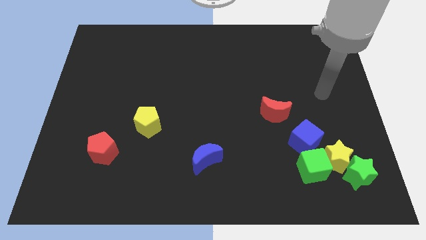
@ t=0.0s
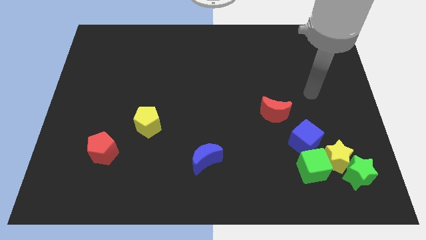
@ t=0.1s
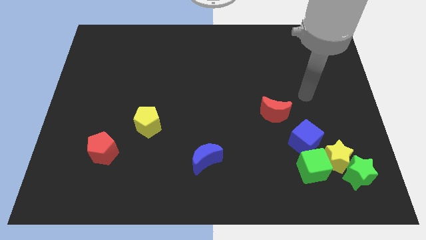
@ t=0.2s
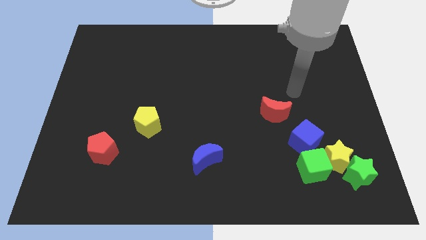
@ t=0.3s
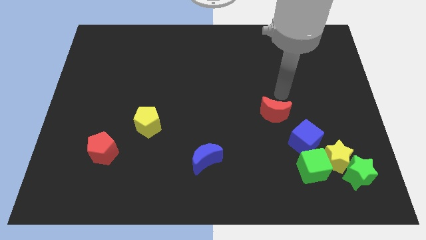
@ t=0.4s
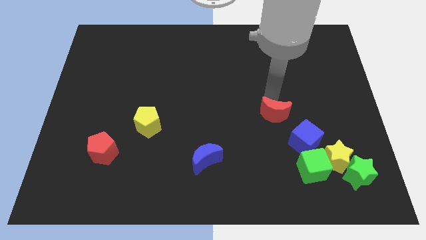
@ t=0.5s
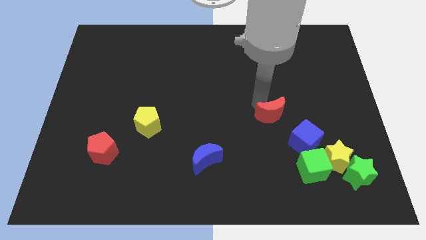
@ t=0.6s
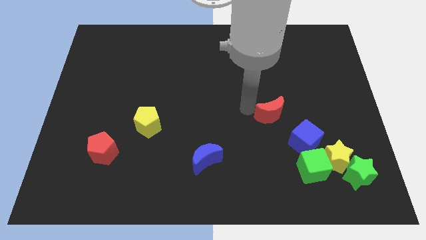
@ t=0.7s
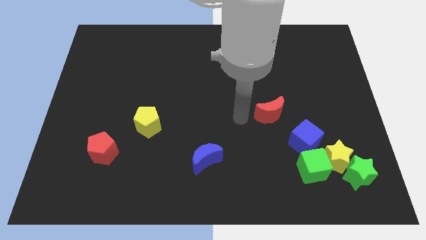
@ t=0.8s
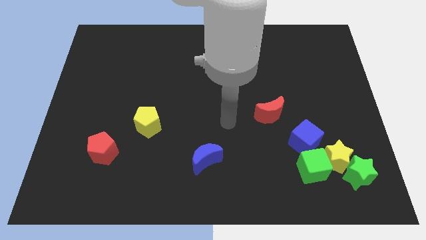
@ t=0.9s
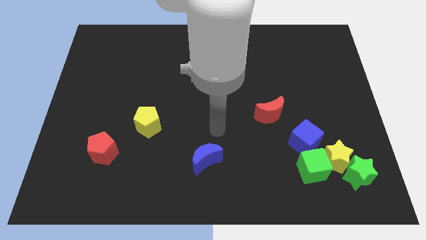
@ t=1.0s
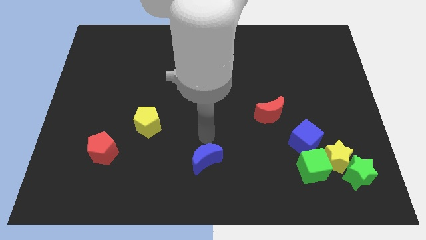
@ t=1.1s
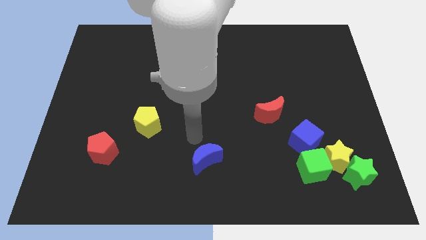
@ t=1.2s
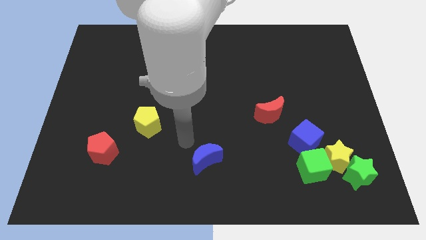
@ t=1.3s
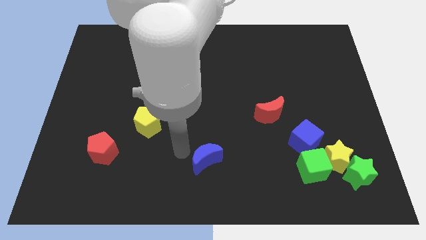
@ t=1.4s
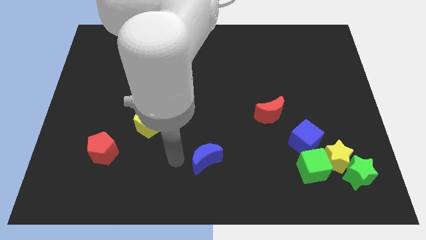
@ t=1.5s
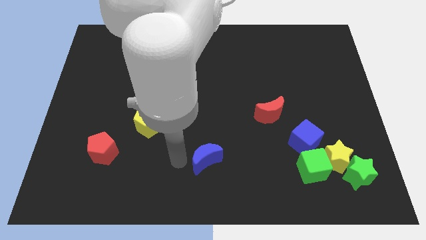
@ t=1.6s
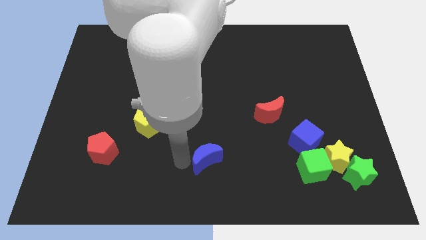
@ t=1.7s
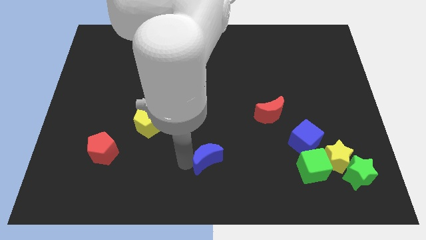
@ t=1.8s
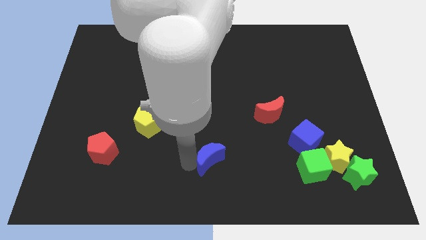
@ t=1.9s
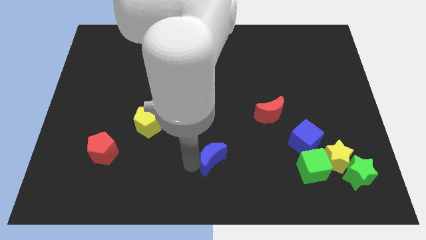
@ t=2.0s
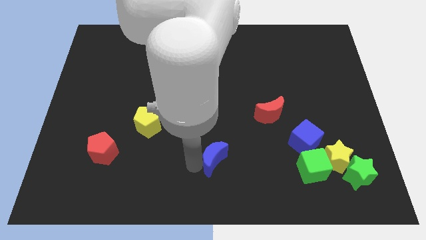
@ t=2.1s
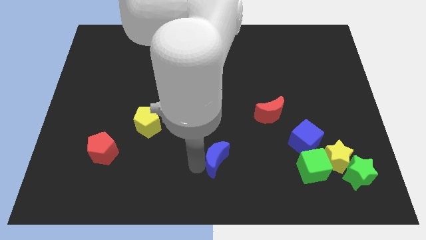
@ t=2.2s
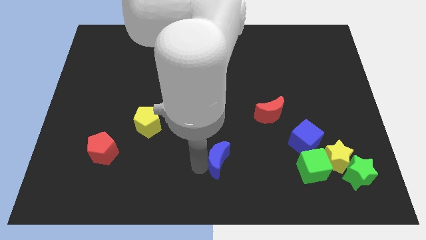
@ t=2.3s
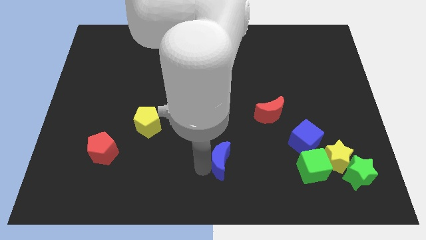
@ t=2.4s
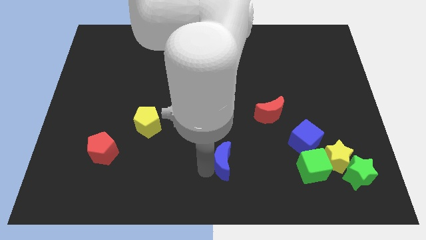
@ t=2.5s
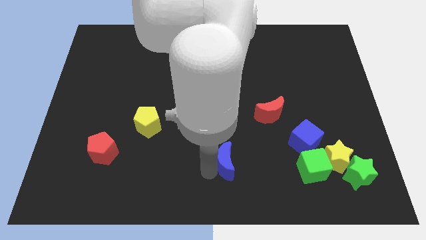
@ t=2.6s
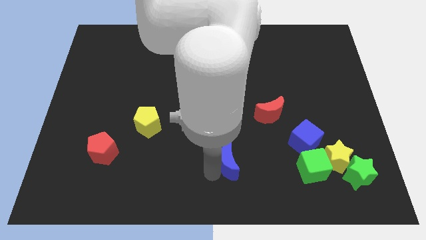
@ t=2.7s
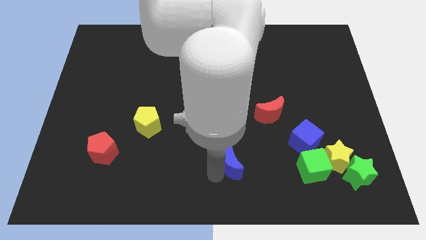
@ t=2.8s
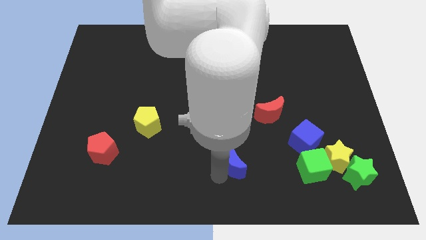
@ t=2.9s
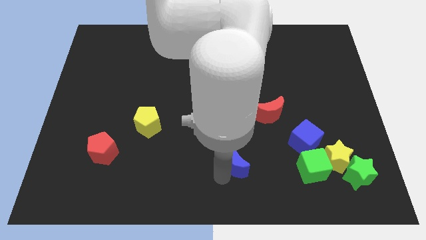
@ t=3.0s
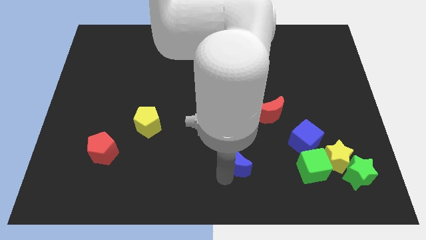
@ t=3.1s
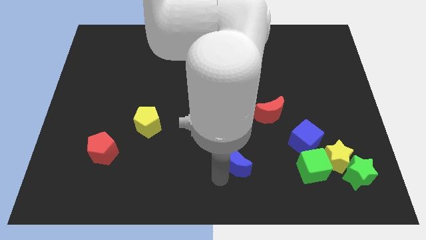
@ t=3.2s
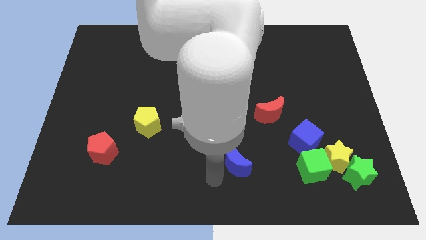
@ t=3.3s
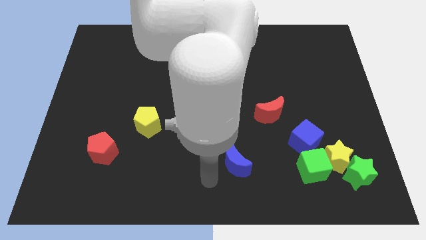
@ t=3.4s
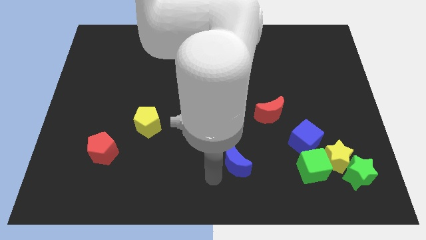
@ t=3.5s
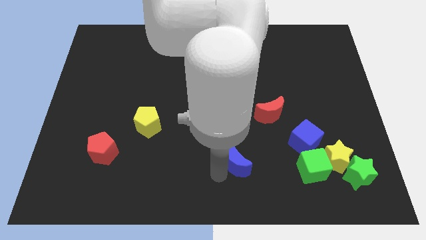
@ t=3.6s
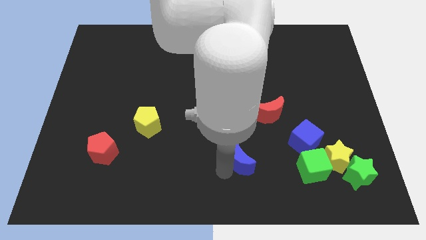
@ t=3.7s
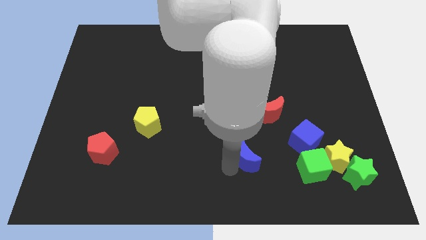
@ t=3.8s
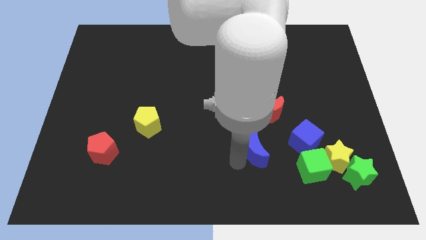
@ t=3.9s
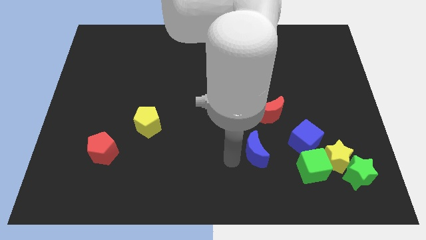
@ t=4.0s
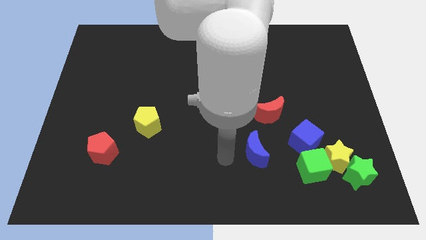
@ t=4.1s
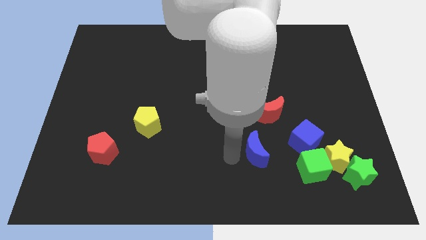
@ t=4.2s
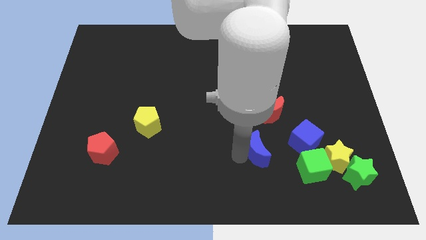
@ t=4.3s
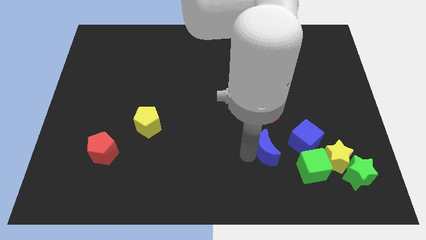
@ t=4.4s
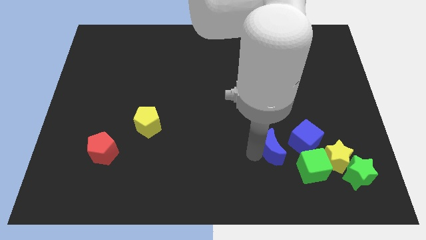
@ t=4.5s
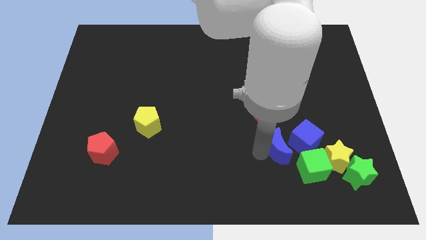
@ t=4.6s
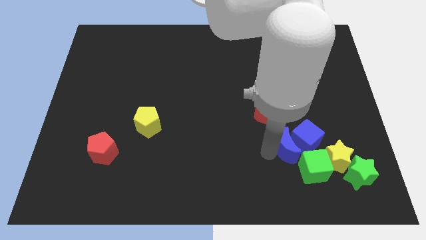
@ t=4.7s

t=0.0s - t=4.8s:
move the blue moon close to the blue cube

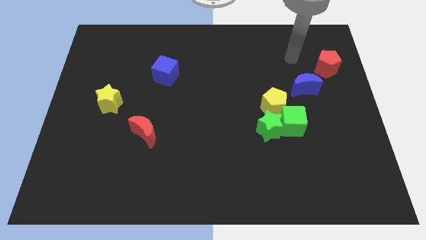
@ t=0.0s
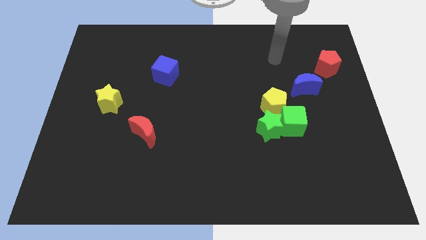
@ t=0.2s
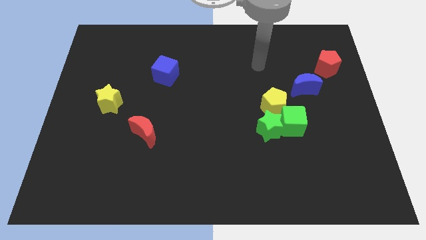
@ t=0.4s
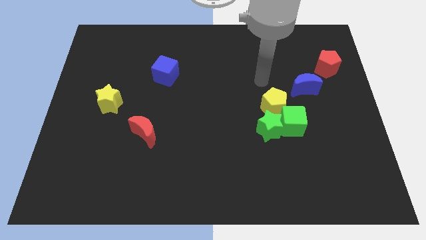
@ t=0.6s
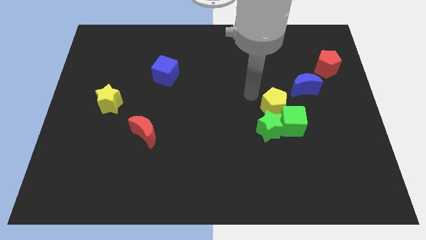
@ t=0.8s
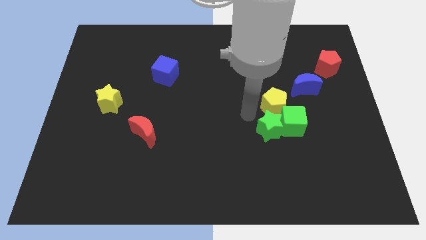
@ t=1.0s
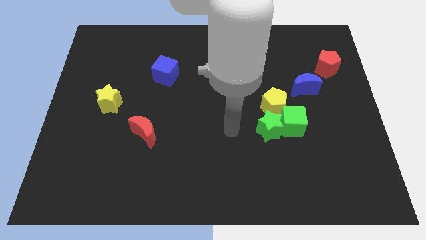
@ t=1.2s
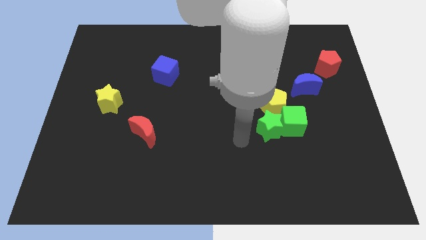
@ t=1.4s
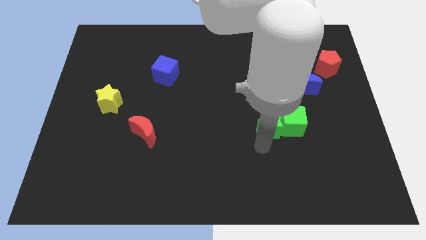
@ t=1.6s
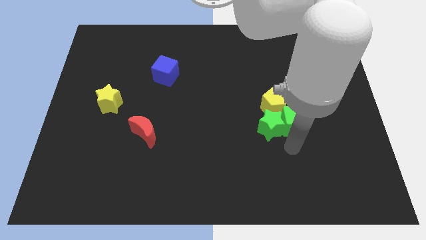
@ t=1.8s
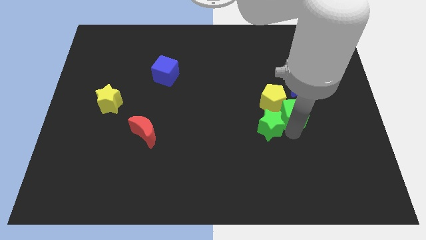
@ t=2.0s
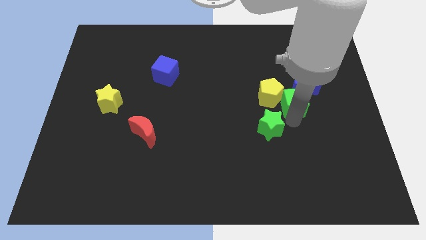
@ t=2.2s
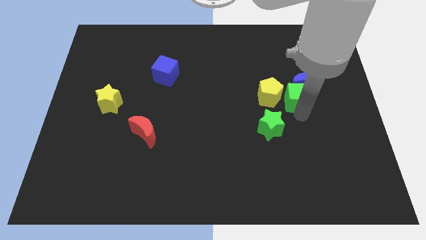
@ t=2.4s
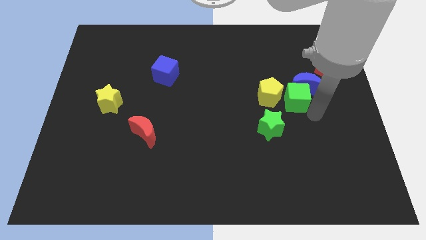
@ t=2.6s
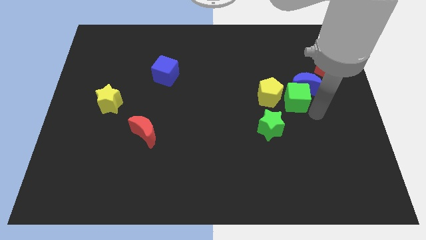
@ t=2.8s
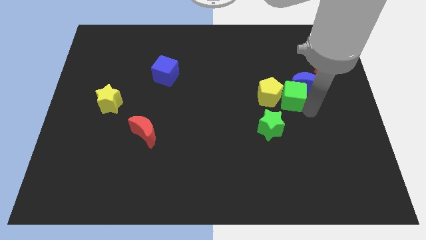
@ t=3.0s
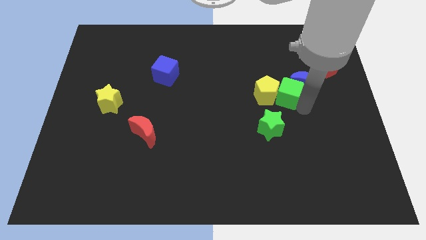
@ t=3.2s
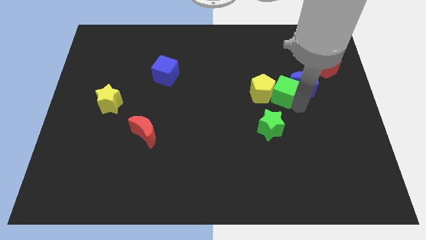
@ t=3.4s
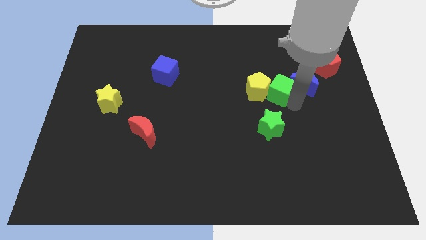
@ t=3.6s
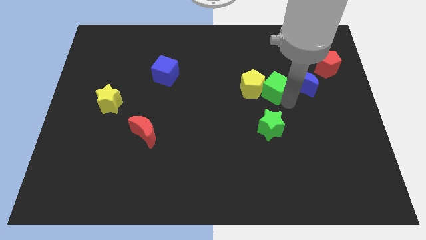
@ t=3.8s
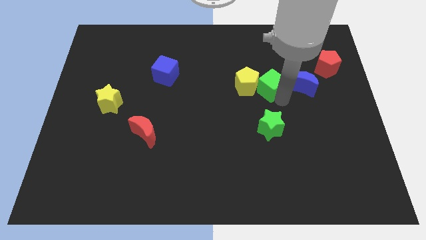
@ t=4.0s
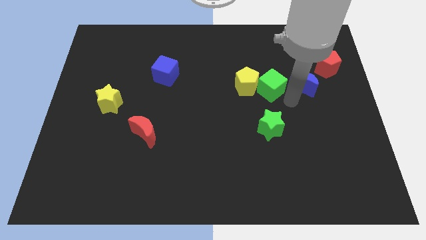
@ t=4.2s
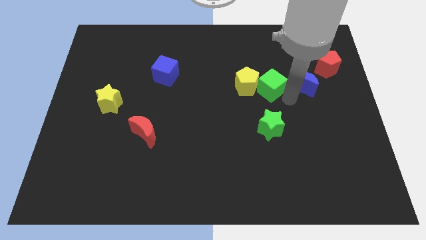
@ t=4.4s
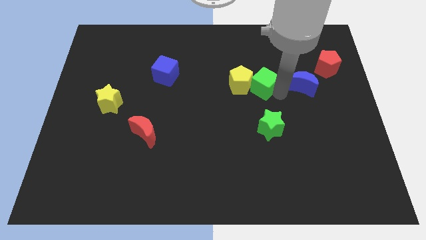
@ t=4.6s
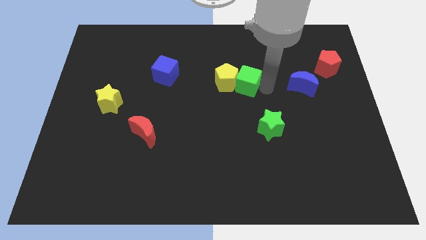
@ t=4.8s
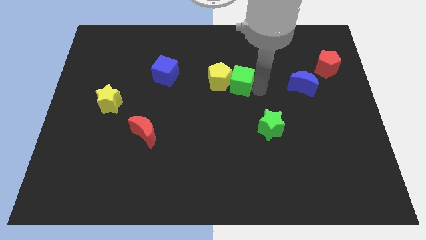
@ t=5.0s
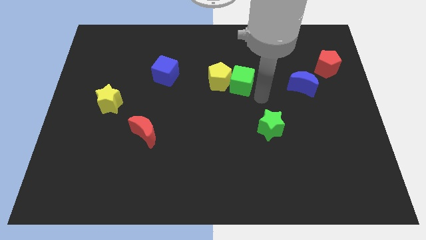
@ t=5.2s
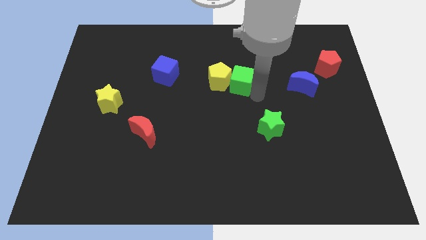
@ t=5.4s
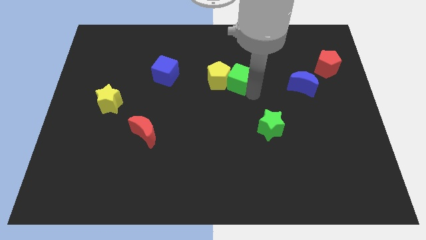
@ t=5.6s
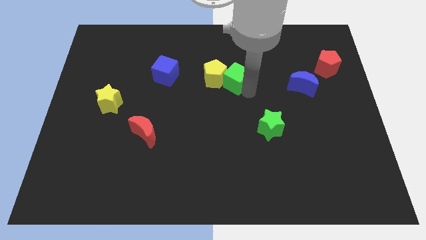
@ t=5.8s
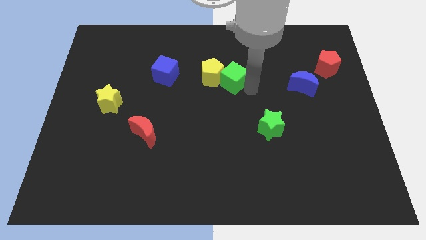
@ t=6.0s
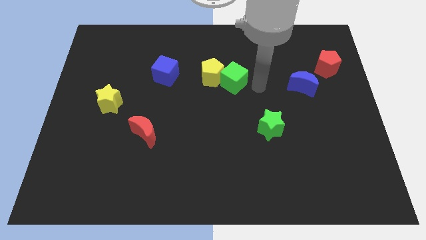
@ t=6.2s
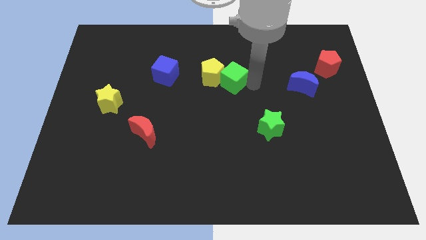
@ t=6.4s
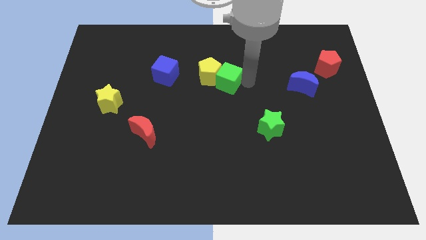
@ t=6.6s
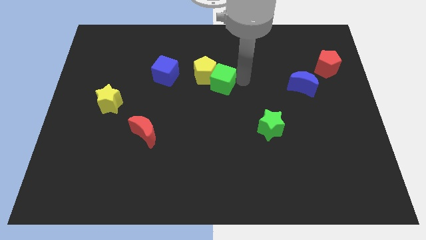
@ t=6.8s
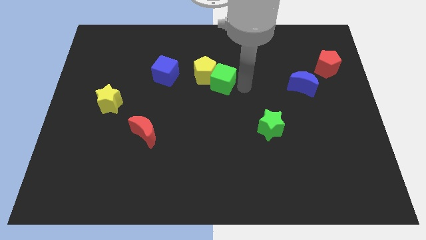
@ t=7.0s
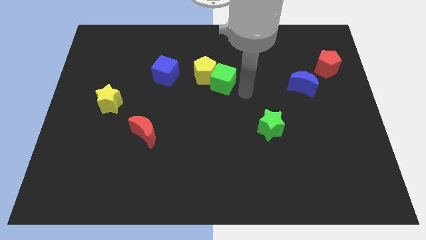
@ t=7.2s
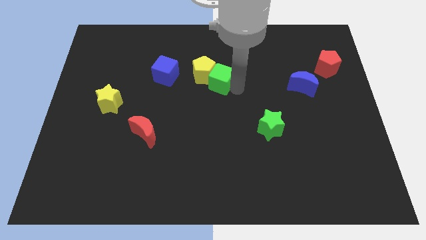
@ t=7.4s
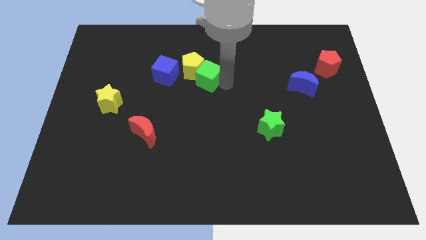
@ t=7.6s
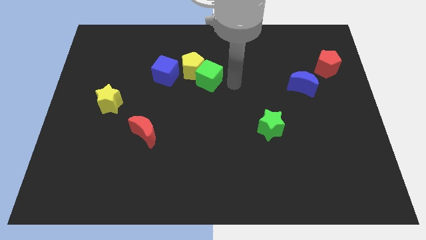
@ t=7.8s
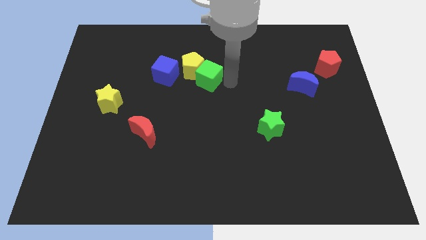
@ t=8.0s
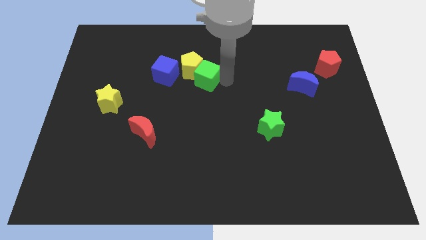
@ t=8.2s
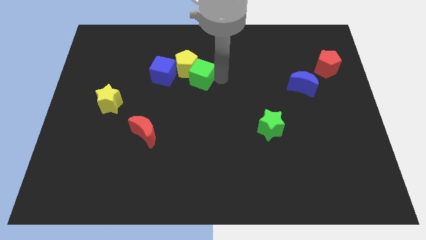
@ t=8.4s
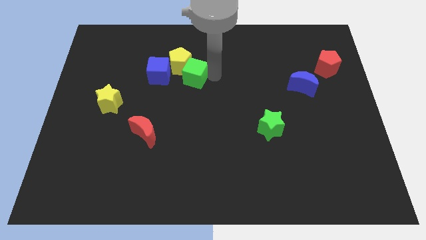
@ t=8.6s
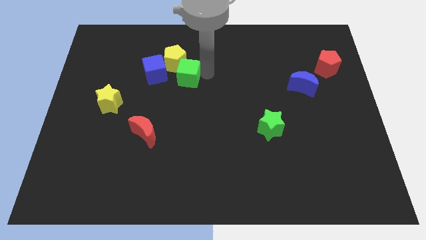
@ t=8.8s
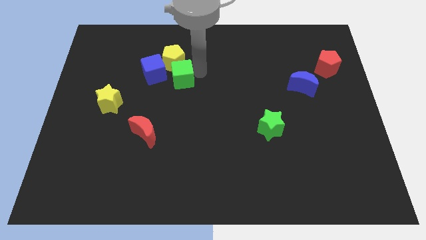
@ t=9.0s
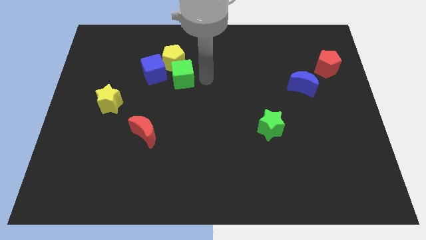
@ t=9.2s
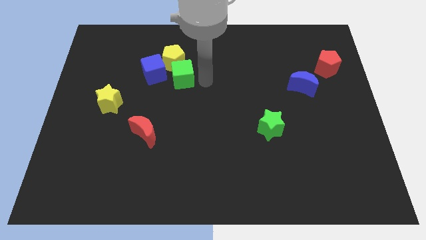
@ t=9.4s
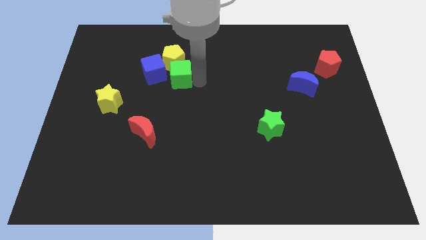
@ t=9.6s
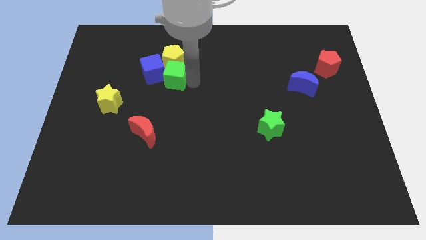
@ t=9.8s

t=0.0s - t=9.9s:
move the green cube towards the blue cube
